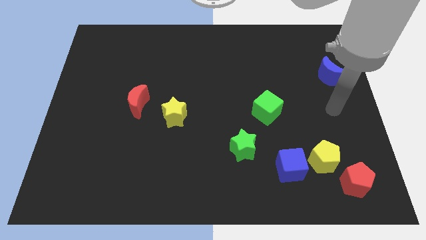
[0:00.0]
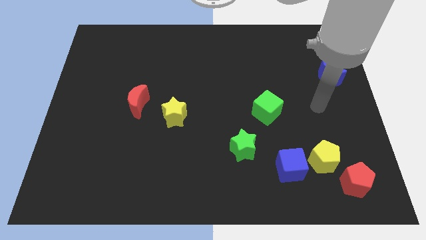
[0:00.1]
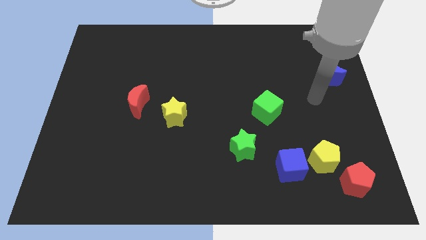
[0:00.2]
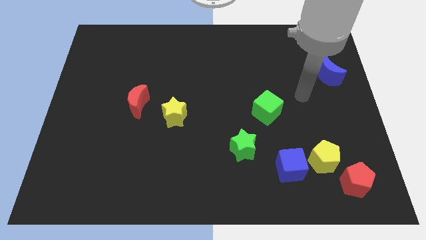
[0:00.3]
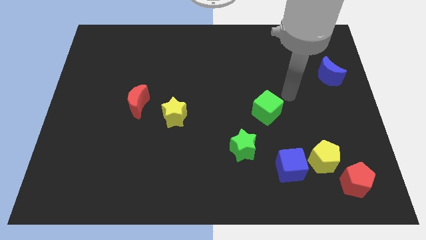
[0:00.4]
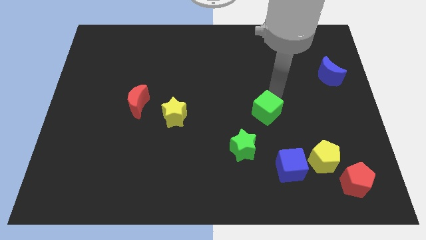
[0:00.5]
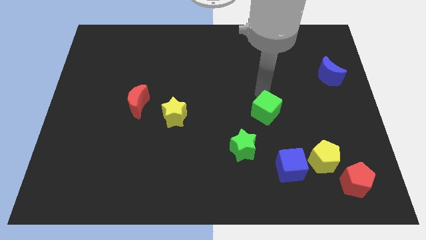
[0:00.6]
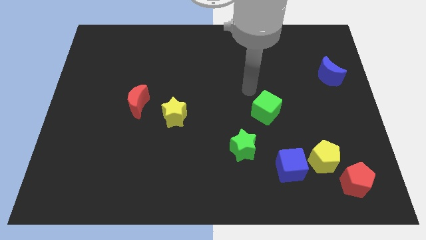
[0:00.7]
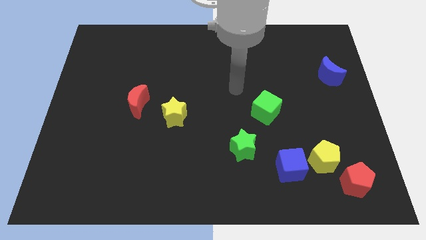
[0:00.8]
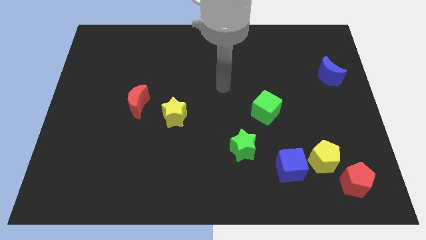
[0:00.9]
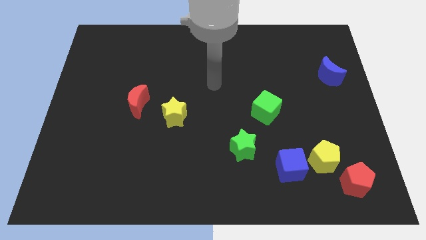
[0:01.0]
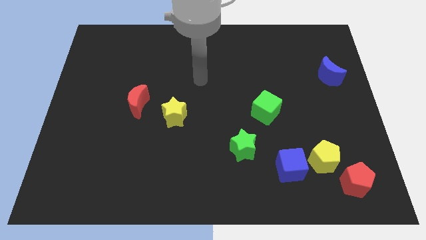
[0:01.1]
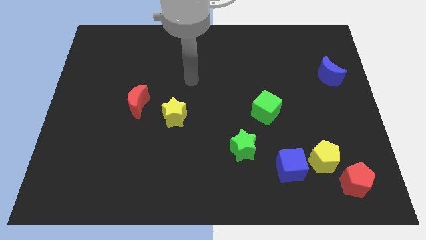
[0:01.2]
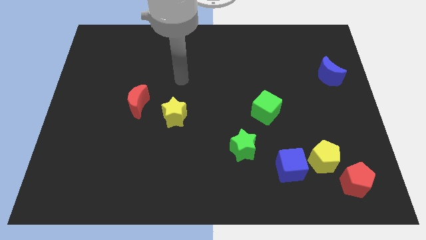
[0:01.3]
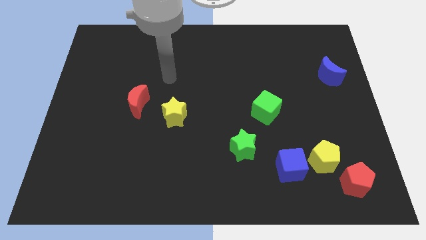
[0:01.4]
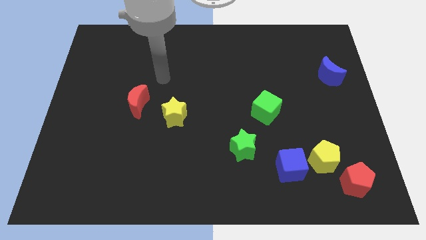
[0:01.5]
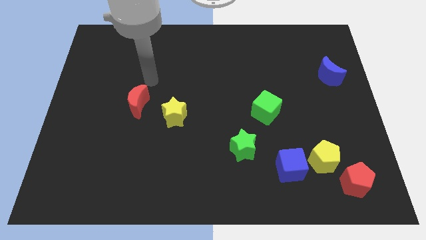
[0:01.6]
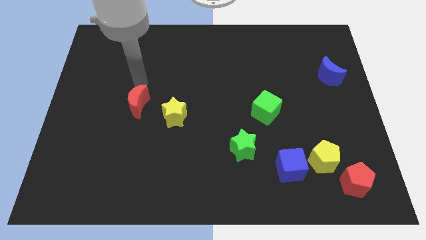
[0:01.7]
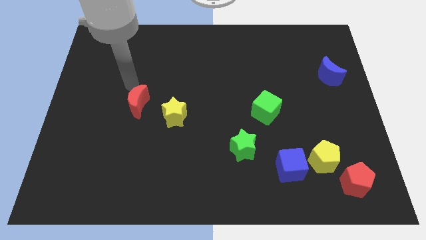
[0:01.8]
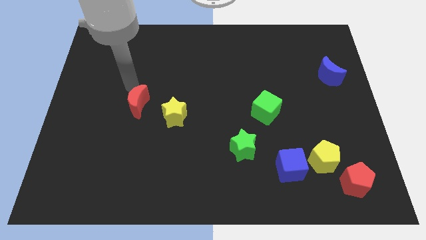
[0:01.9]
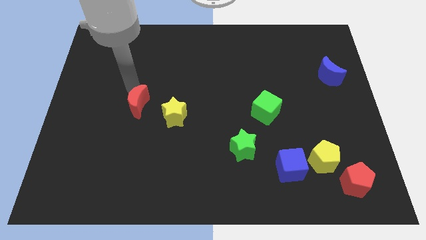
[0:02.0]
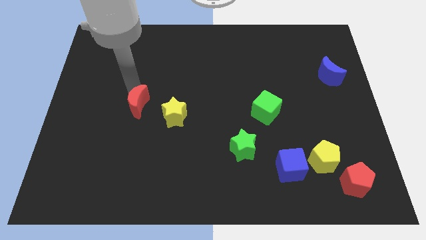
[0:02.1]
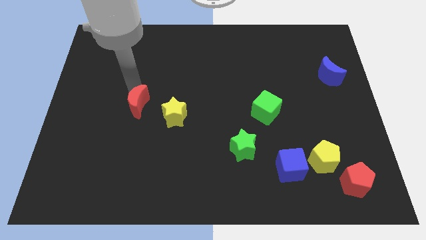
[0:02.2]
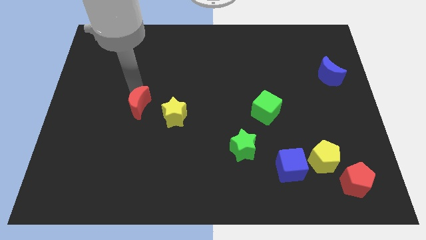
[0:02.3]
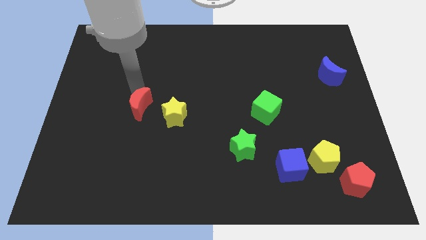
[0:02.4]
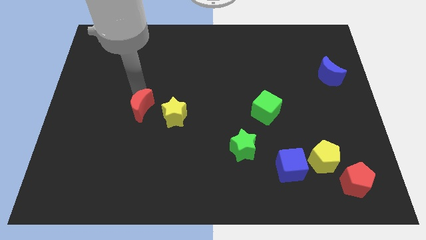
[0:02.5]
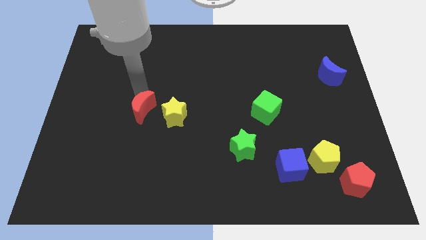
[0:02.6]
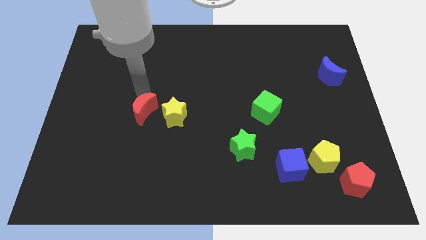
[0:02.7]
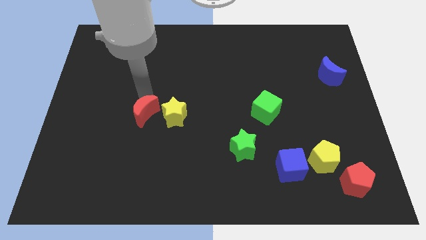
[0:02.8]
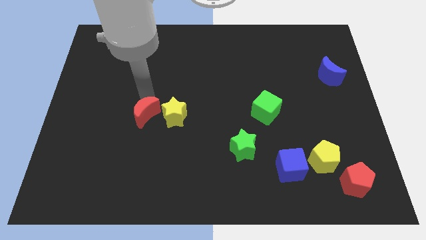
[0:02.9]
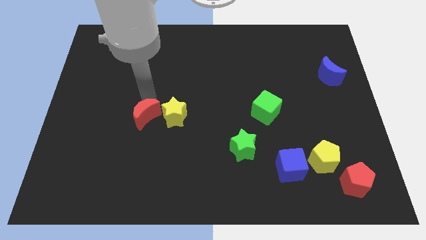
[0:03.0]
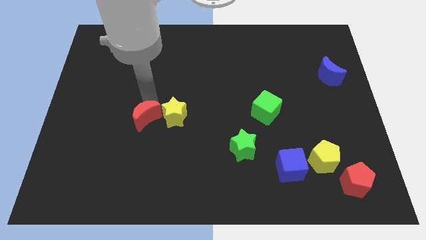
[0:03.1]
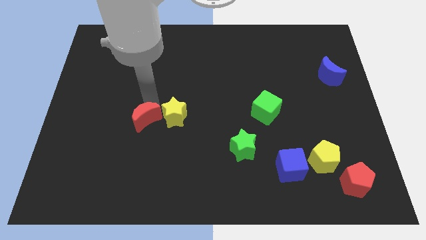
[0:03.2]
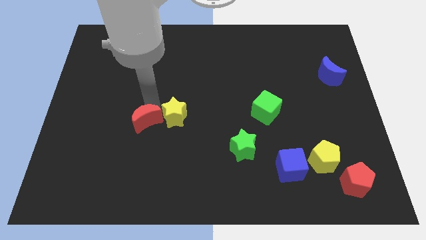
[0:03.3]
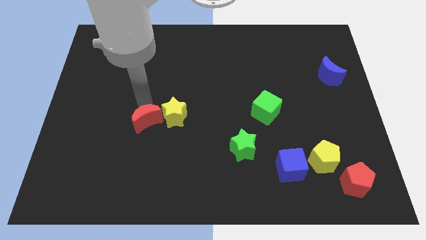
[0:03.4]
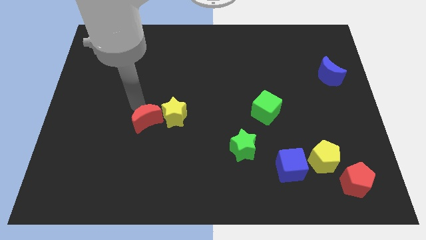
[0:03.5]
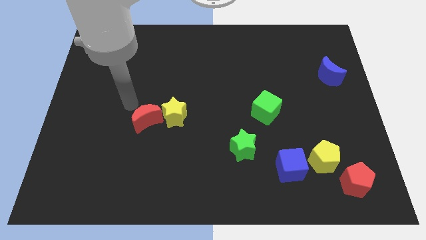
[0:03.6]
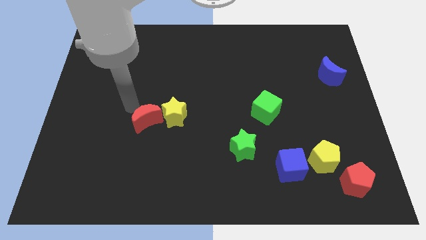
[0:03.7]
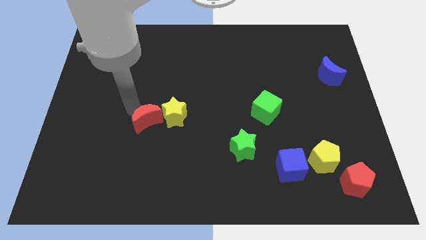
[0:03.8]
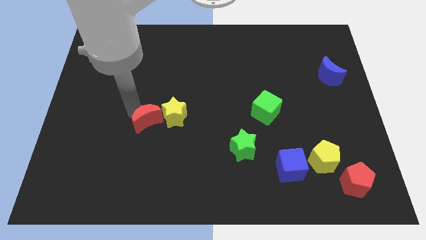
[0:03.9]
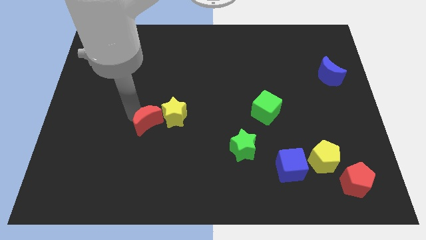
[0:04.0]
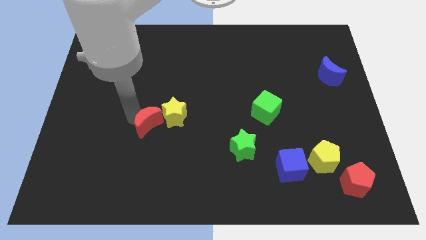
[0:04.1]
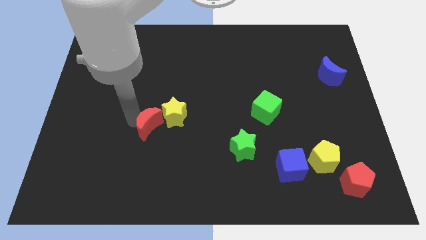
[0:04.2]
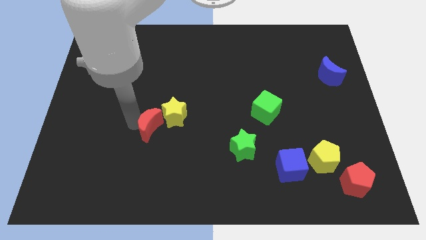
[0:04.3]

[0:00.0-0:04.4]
move the red moon slightly diagonally downwards and right

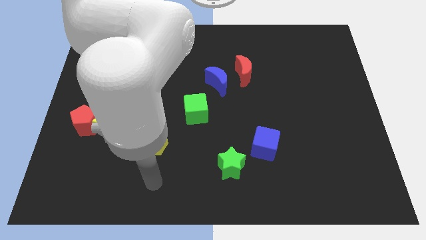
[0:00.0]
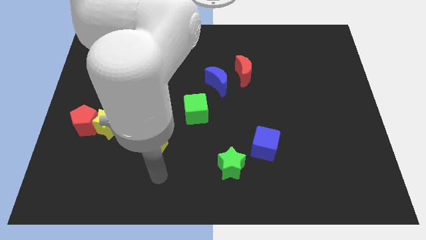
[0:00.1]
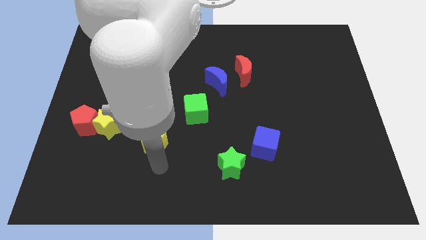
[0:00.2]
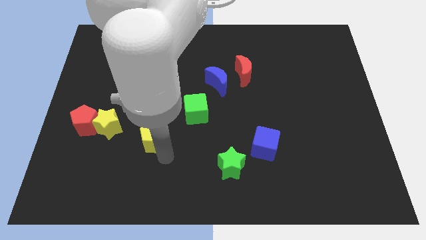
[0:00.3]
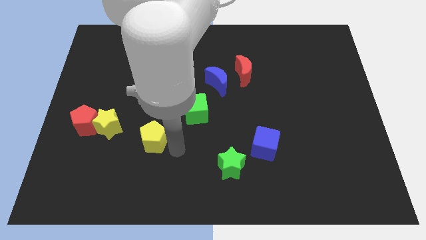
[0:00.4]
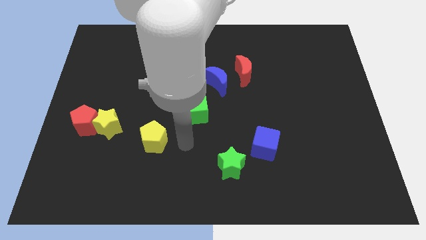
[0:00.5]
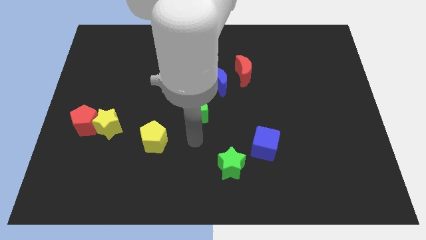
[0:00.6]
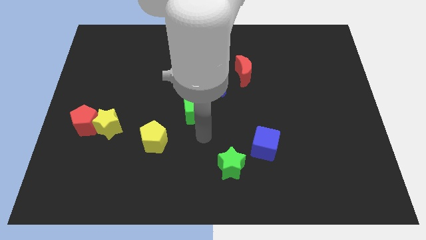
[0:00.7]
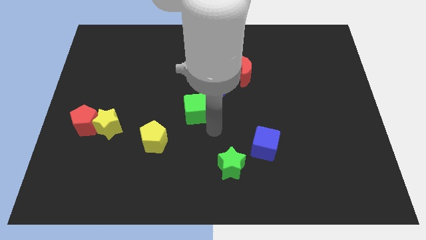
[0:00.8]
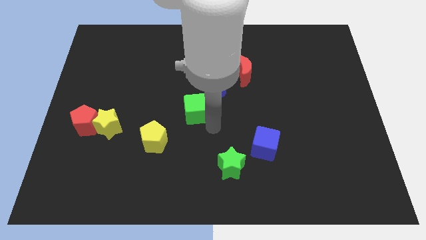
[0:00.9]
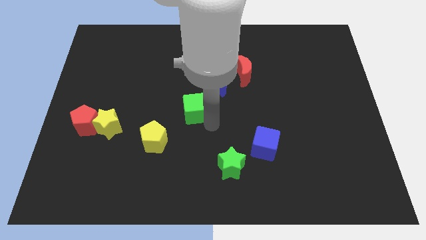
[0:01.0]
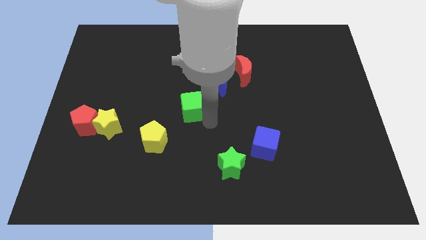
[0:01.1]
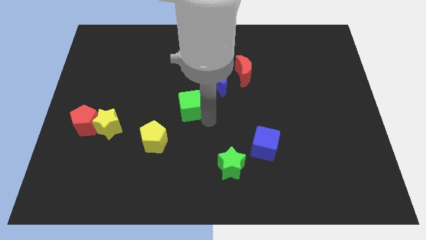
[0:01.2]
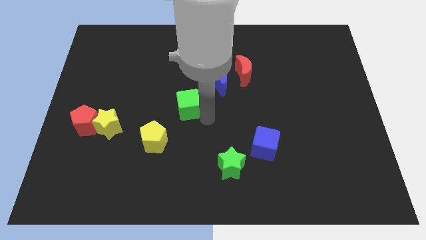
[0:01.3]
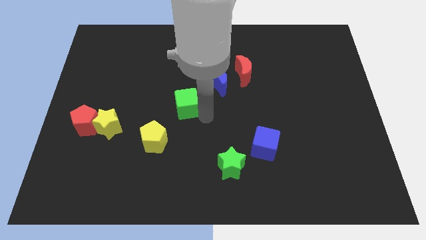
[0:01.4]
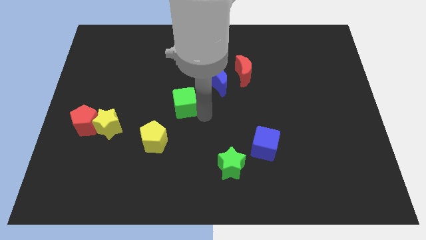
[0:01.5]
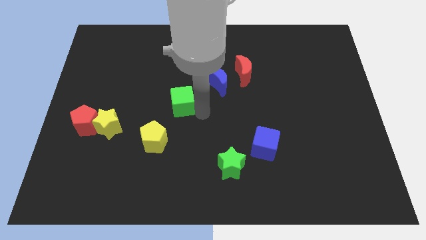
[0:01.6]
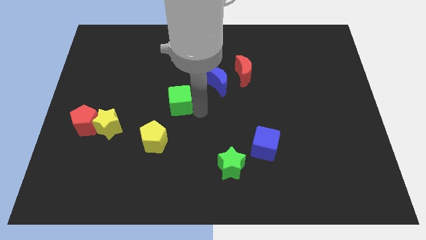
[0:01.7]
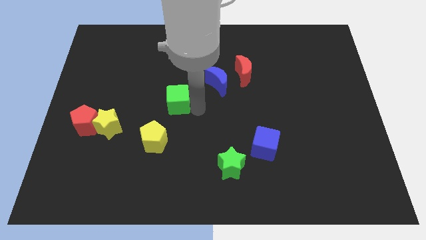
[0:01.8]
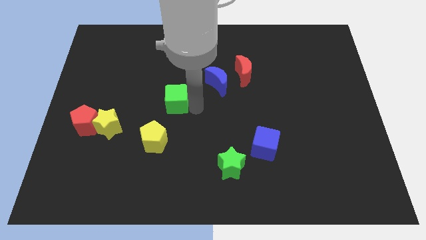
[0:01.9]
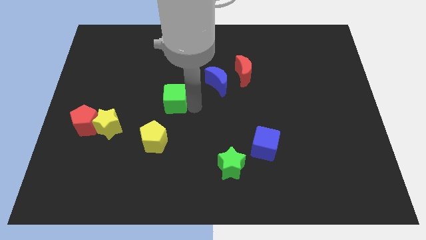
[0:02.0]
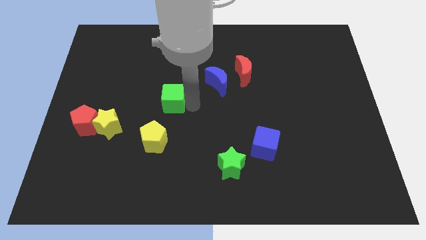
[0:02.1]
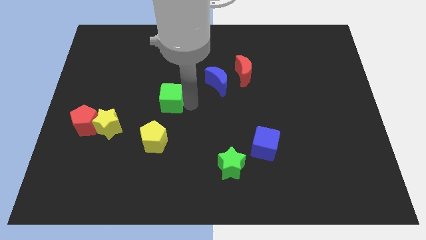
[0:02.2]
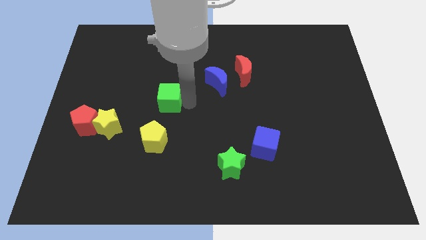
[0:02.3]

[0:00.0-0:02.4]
slightly push the green cube diagonally upwards and to the left

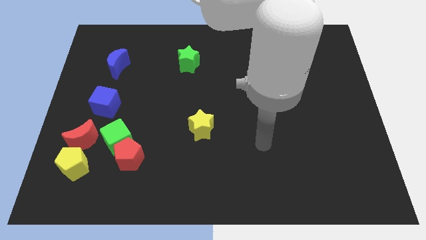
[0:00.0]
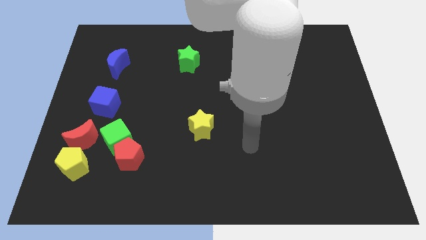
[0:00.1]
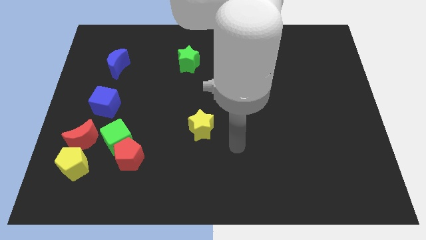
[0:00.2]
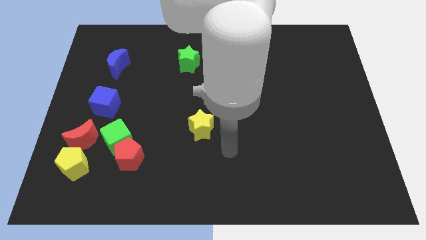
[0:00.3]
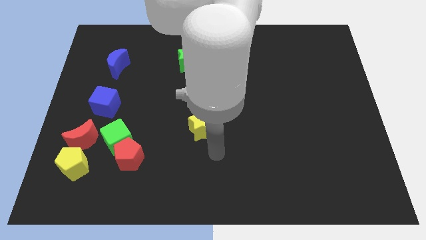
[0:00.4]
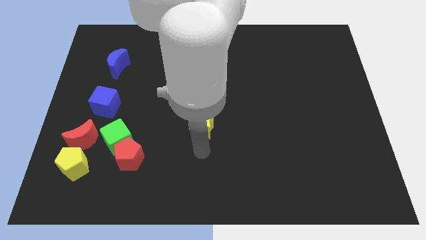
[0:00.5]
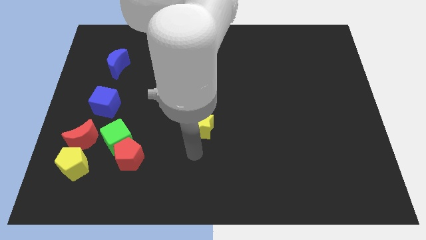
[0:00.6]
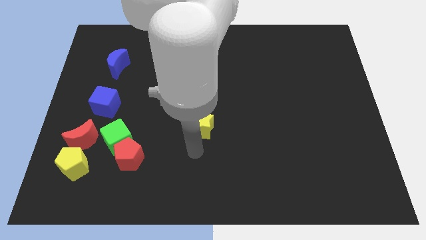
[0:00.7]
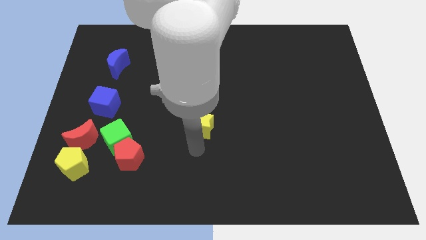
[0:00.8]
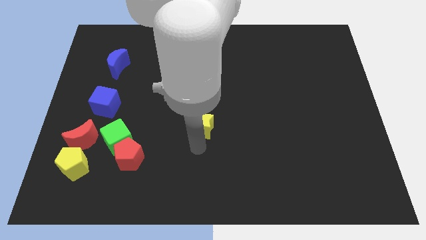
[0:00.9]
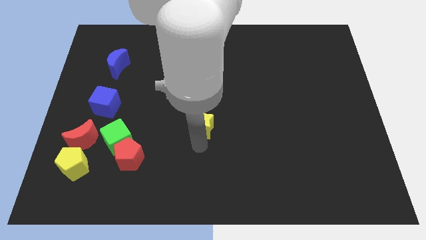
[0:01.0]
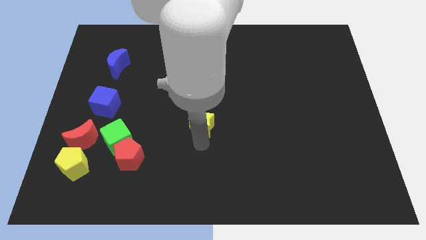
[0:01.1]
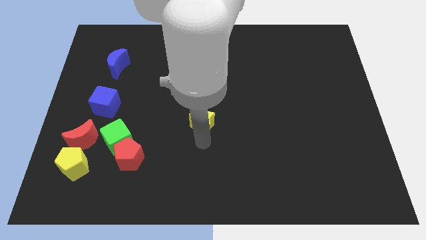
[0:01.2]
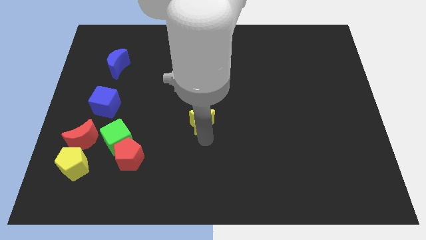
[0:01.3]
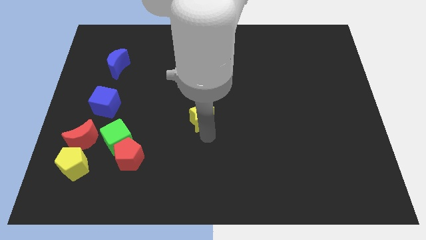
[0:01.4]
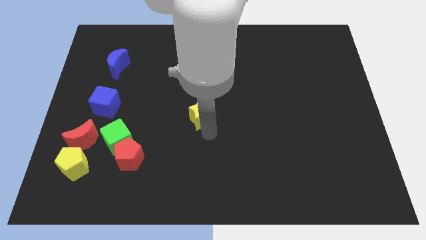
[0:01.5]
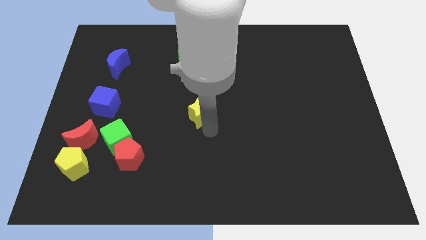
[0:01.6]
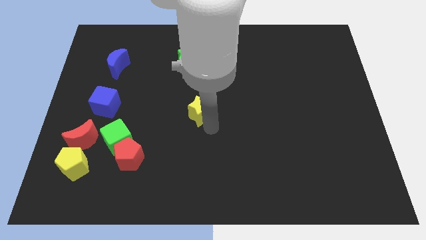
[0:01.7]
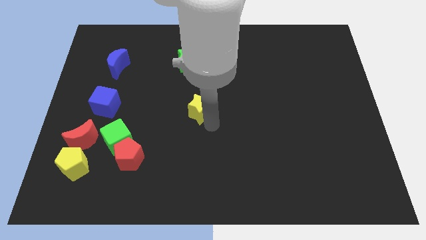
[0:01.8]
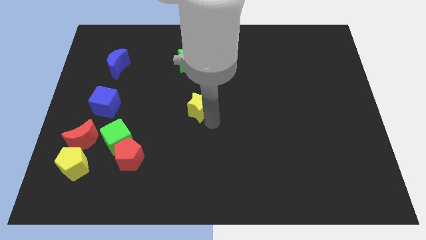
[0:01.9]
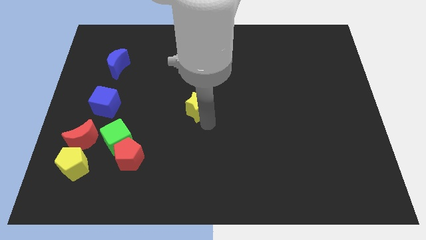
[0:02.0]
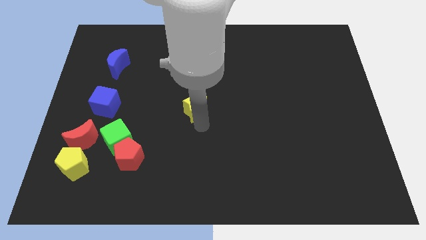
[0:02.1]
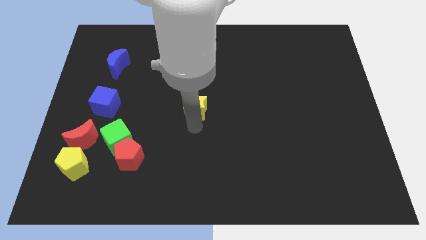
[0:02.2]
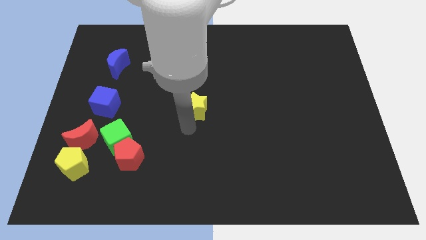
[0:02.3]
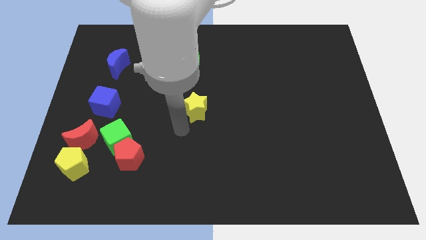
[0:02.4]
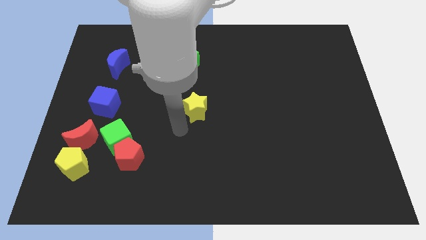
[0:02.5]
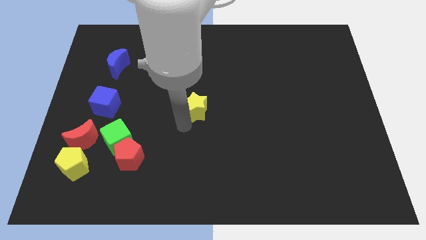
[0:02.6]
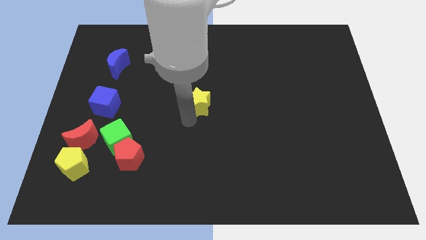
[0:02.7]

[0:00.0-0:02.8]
push the yellow star slightly upwards
